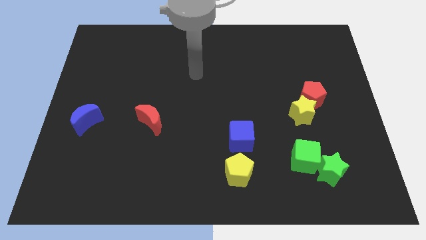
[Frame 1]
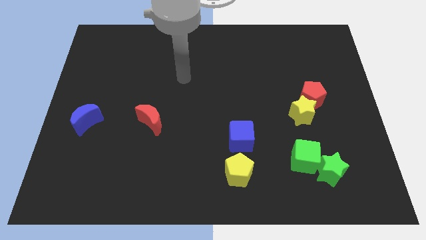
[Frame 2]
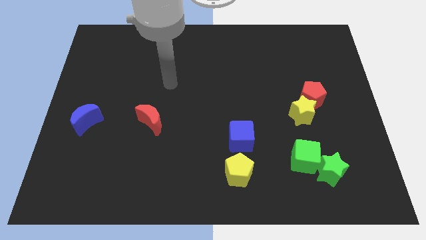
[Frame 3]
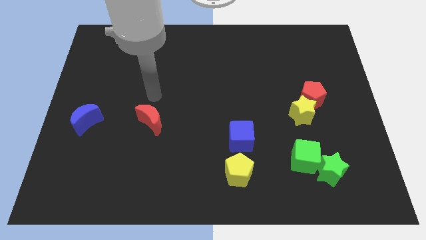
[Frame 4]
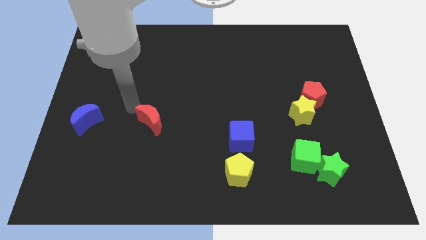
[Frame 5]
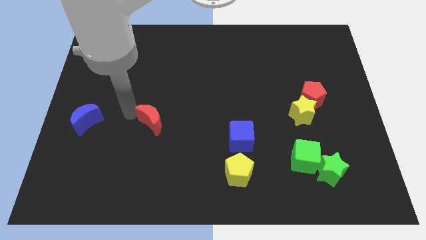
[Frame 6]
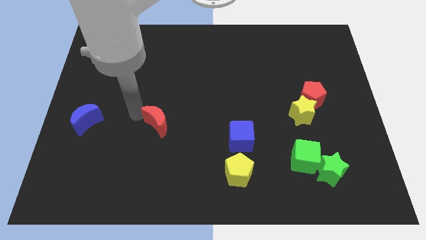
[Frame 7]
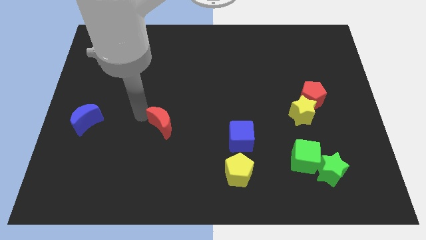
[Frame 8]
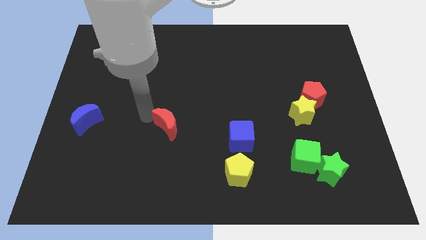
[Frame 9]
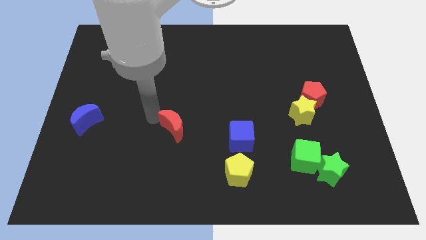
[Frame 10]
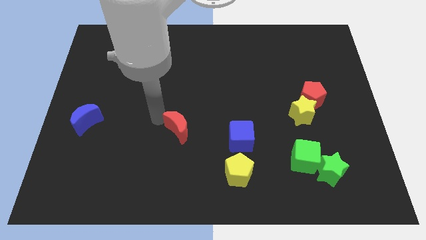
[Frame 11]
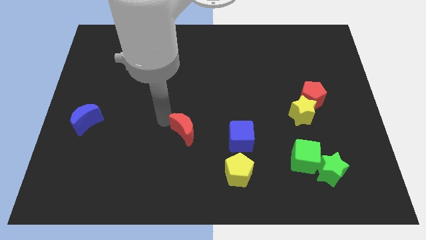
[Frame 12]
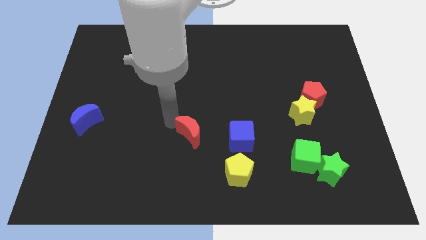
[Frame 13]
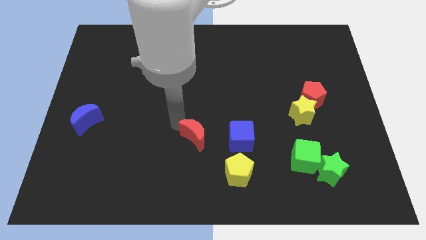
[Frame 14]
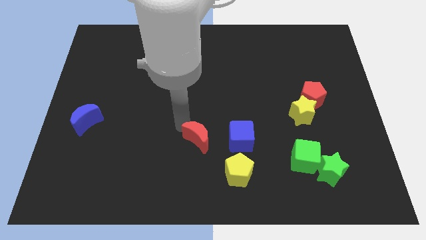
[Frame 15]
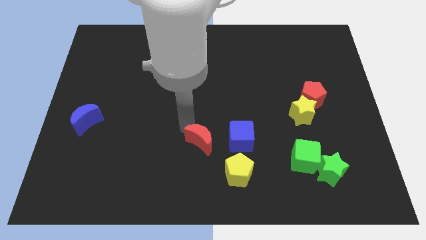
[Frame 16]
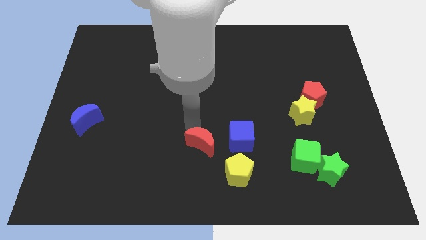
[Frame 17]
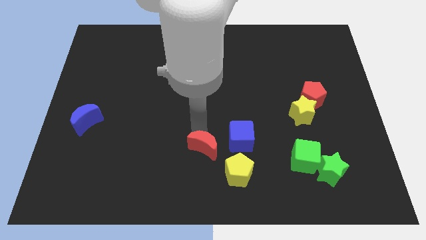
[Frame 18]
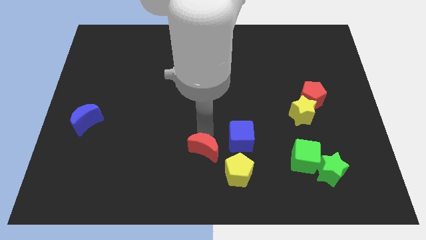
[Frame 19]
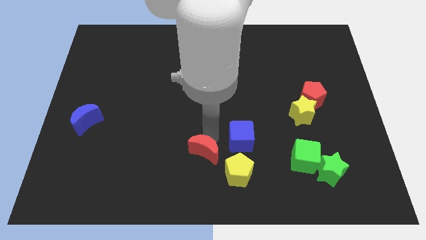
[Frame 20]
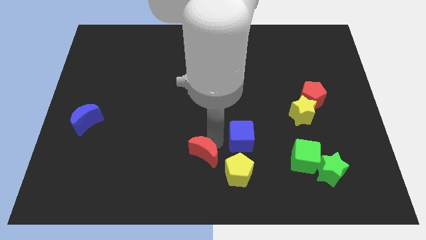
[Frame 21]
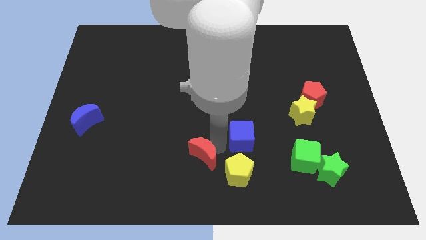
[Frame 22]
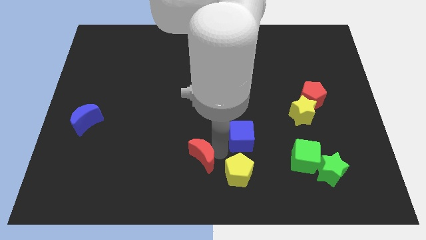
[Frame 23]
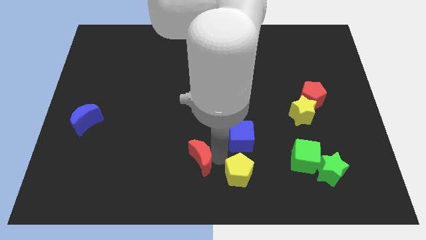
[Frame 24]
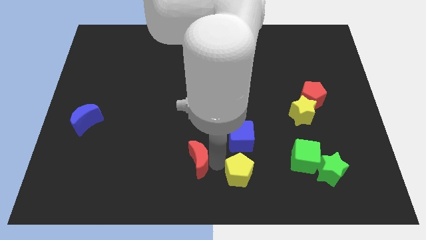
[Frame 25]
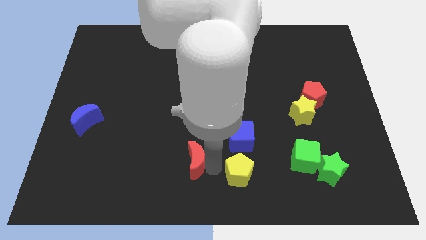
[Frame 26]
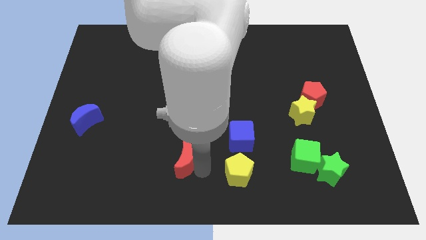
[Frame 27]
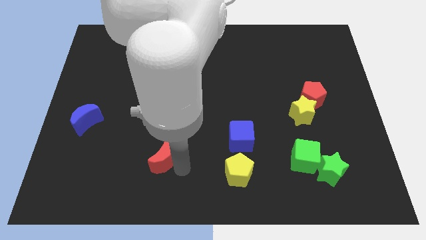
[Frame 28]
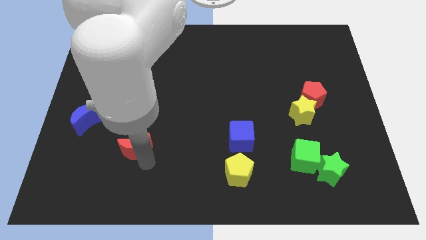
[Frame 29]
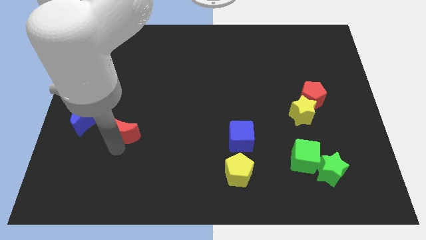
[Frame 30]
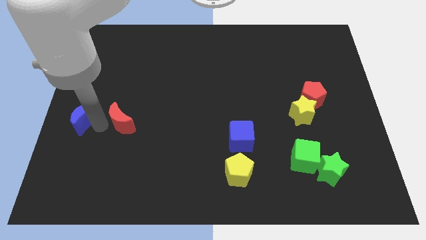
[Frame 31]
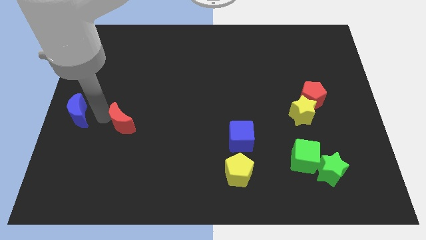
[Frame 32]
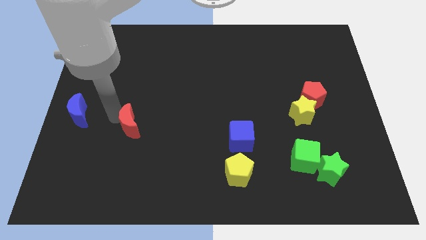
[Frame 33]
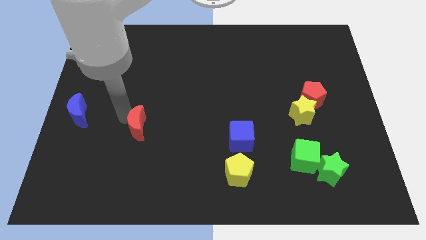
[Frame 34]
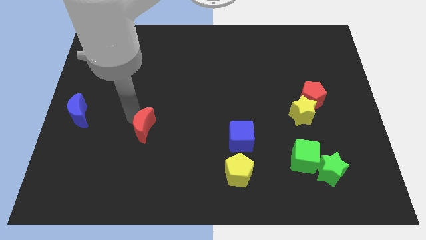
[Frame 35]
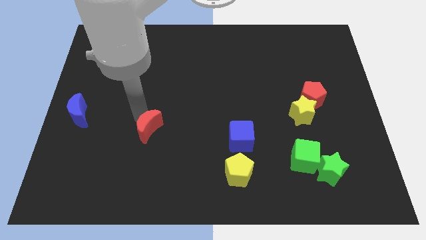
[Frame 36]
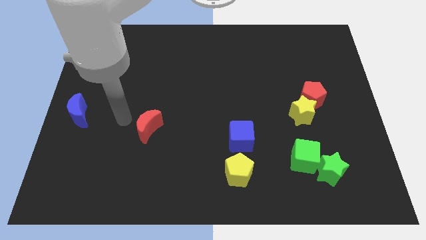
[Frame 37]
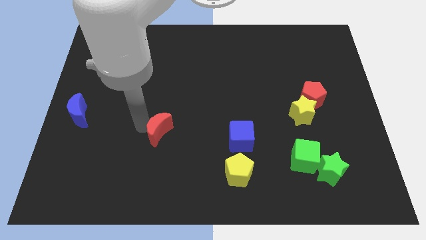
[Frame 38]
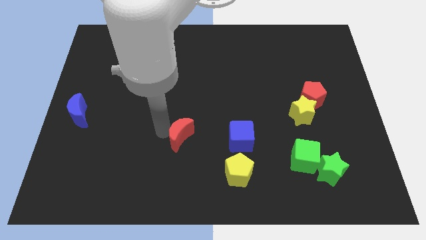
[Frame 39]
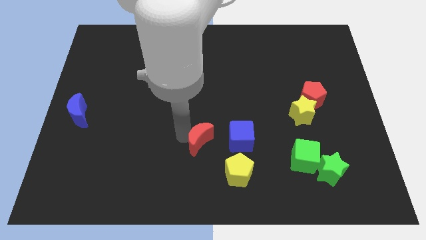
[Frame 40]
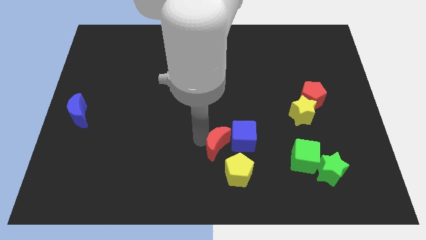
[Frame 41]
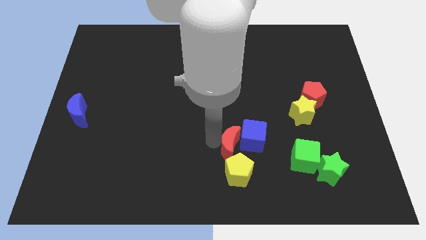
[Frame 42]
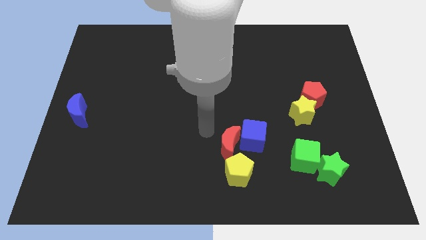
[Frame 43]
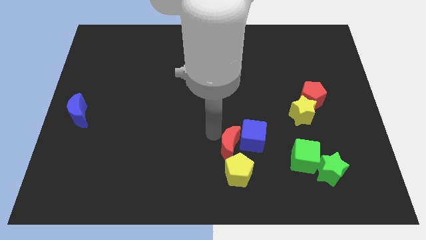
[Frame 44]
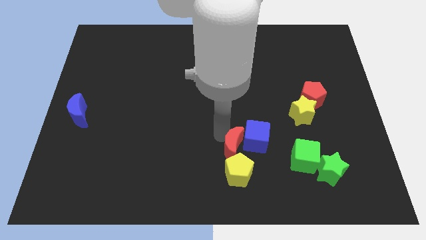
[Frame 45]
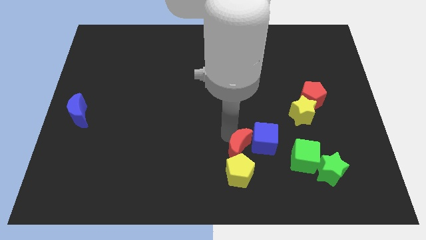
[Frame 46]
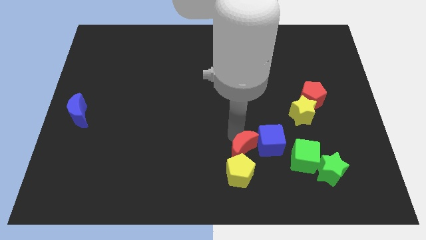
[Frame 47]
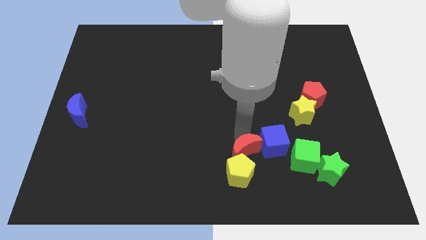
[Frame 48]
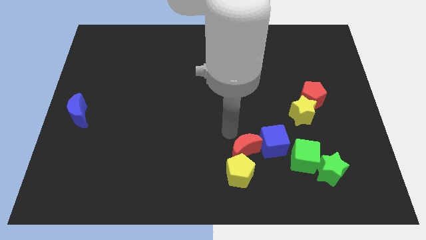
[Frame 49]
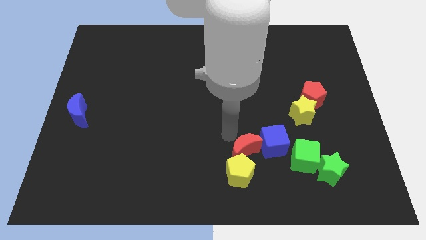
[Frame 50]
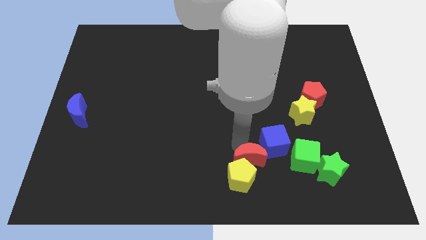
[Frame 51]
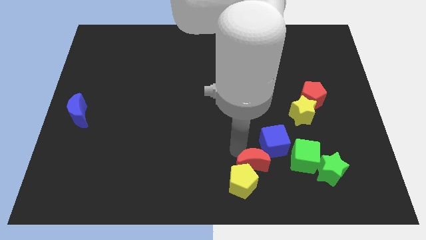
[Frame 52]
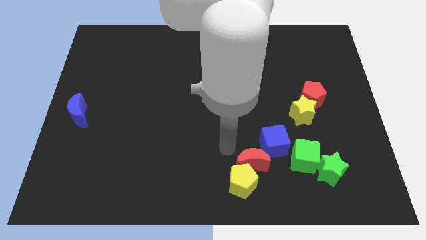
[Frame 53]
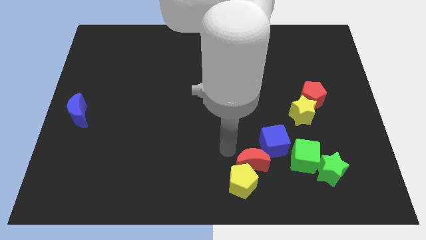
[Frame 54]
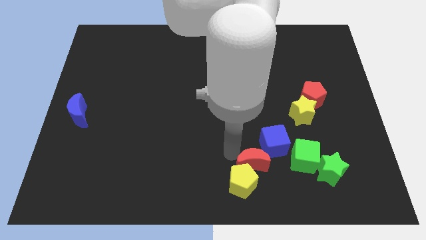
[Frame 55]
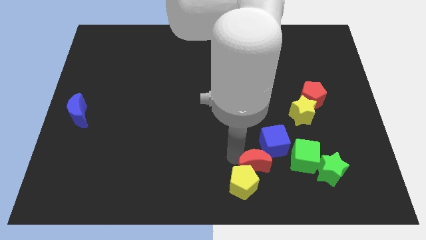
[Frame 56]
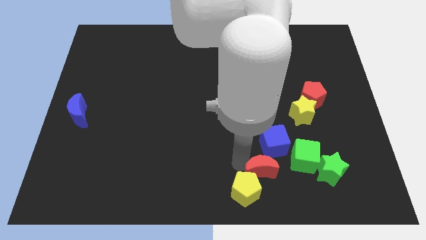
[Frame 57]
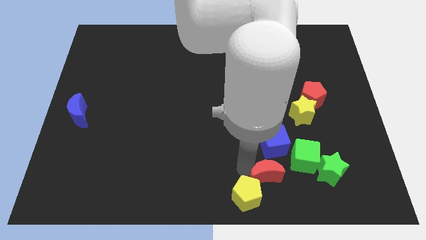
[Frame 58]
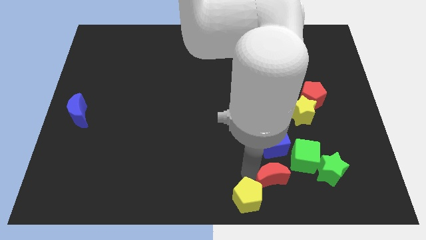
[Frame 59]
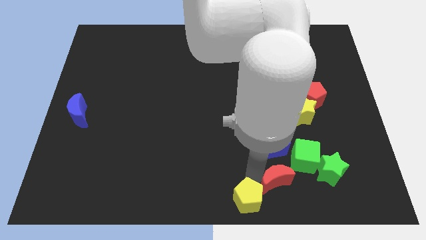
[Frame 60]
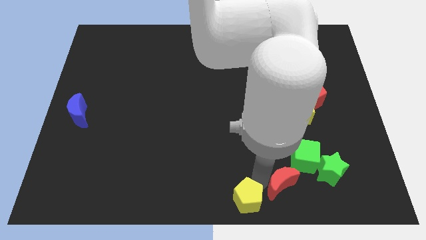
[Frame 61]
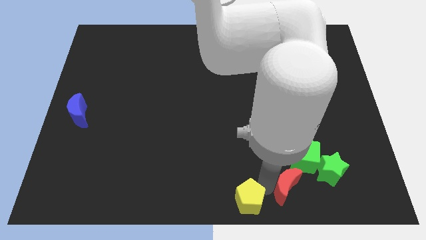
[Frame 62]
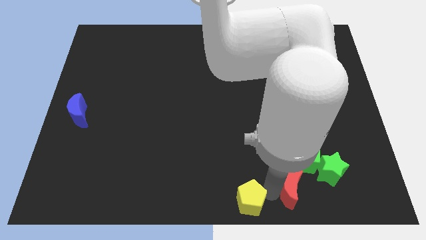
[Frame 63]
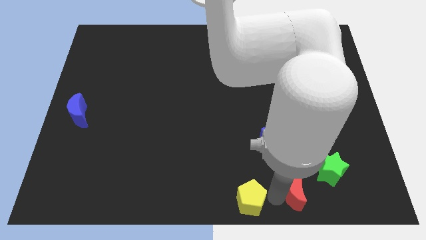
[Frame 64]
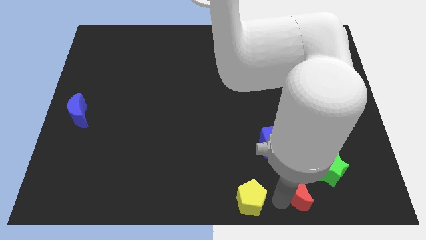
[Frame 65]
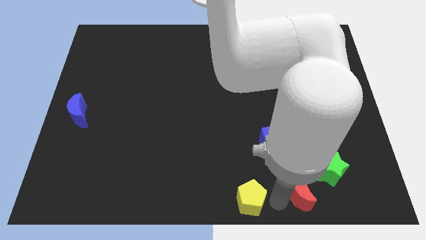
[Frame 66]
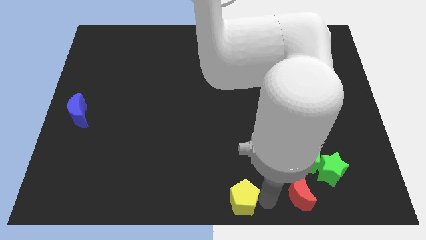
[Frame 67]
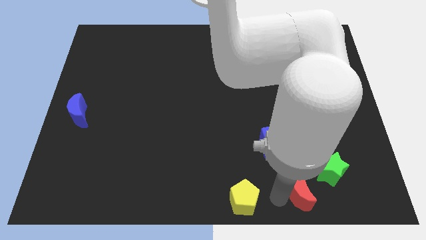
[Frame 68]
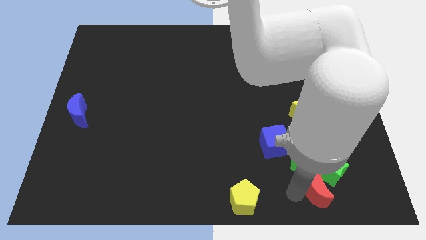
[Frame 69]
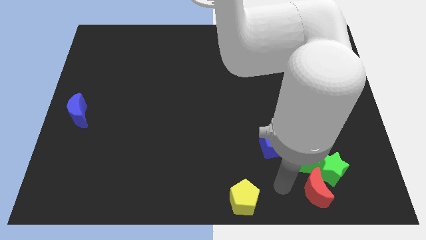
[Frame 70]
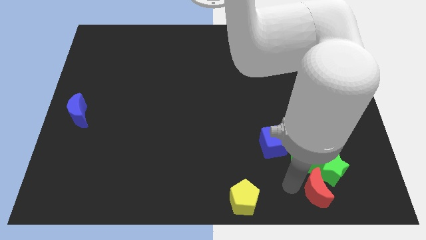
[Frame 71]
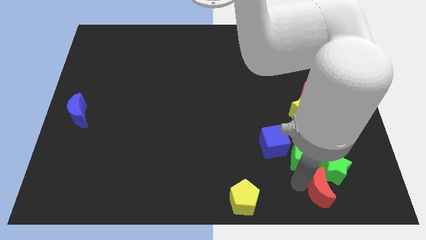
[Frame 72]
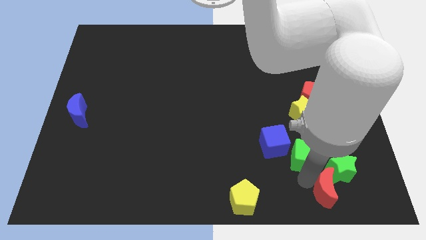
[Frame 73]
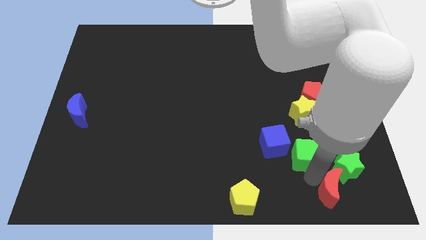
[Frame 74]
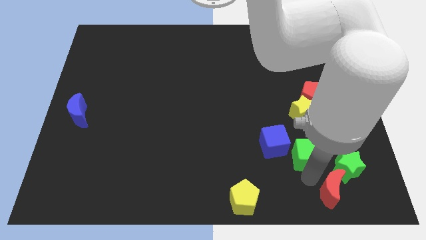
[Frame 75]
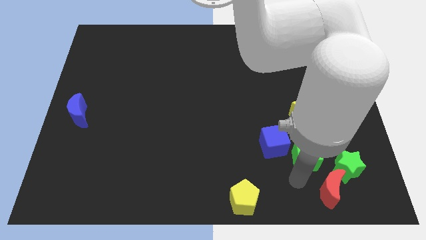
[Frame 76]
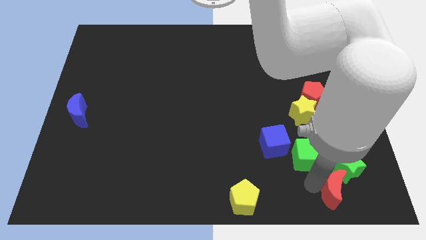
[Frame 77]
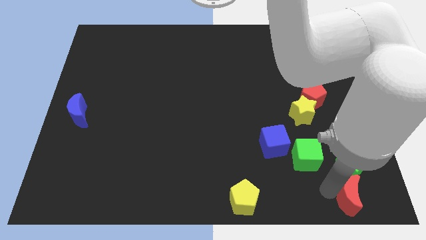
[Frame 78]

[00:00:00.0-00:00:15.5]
push the red moon to the lower right corner
